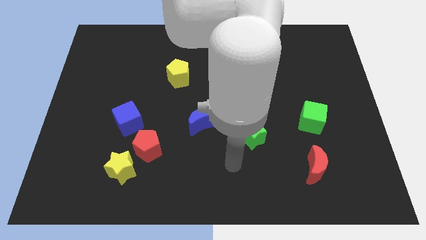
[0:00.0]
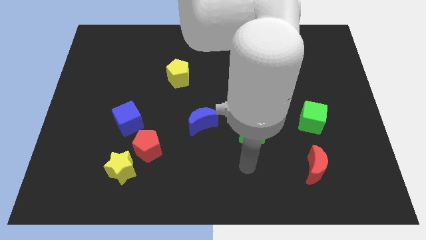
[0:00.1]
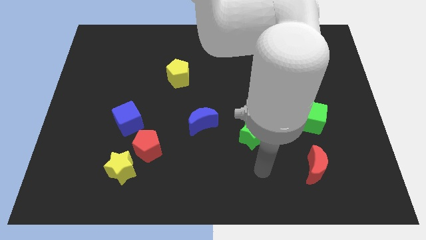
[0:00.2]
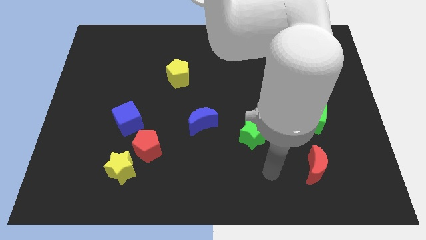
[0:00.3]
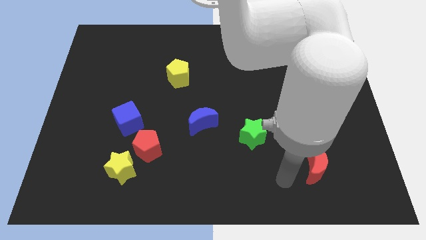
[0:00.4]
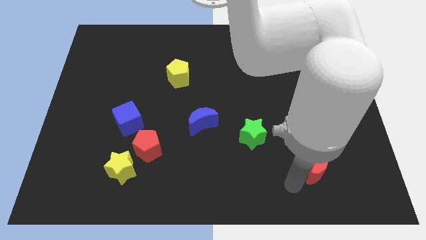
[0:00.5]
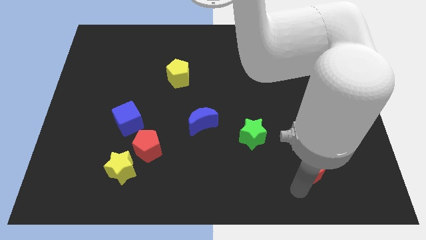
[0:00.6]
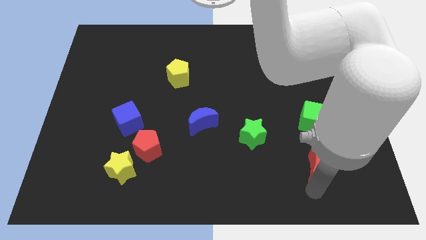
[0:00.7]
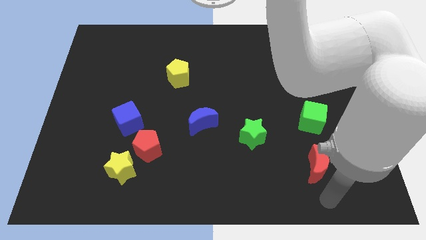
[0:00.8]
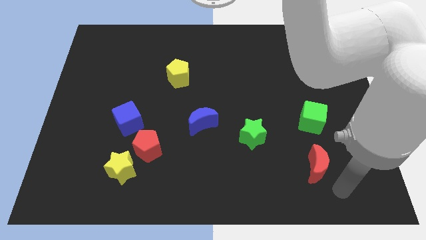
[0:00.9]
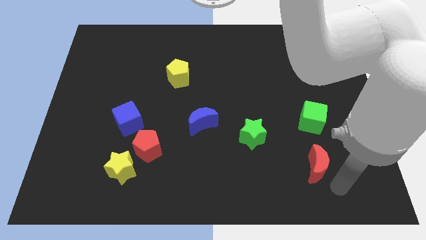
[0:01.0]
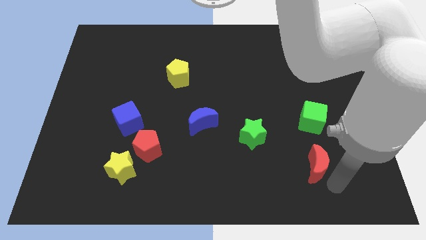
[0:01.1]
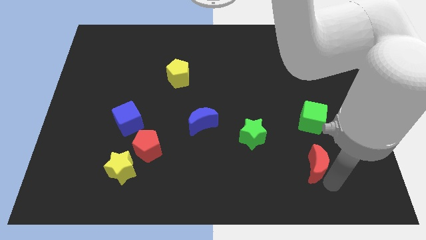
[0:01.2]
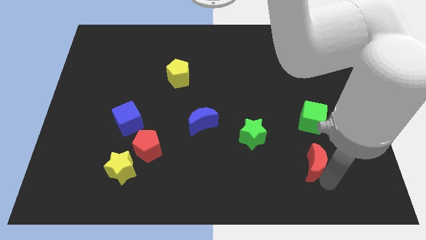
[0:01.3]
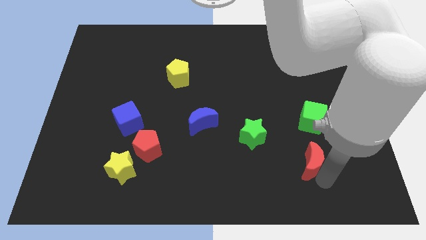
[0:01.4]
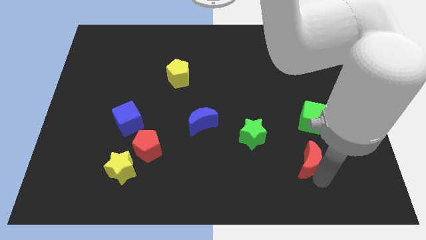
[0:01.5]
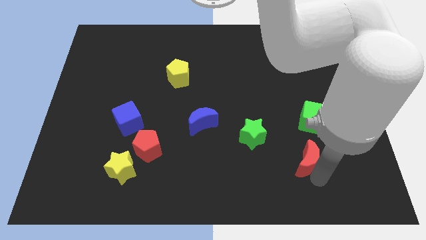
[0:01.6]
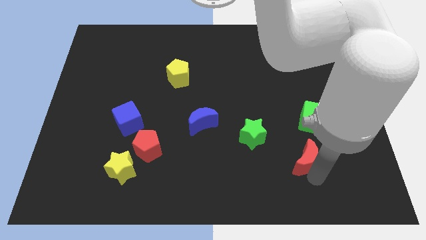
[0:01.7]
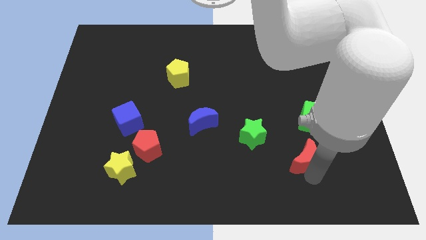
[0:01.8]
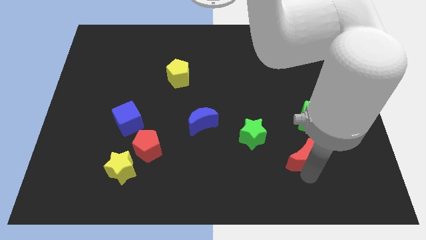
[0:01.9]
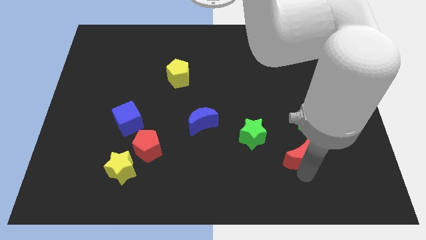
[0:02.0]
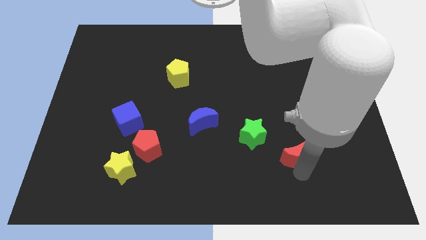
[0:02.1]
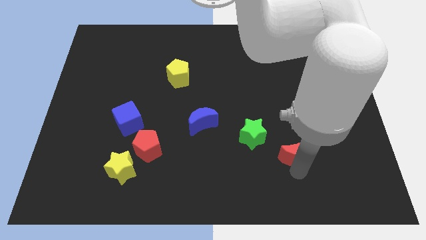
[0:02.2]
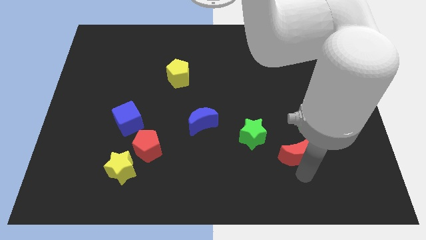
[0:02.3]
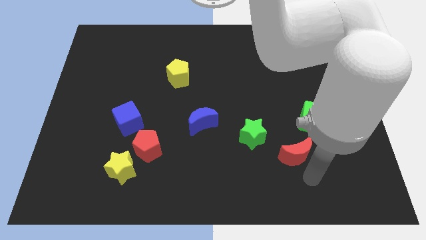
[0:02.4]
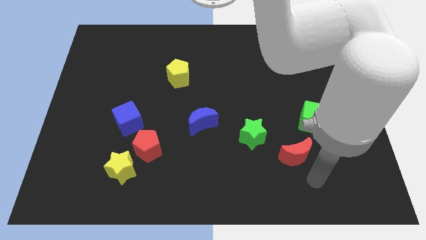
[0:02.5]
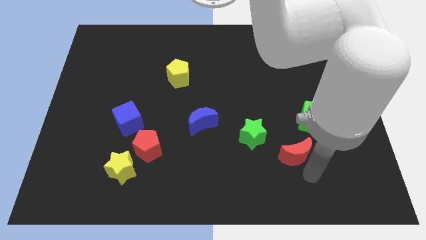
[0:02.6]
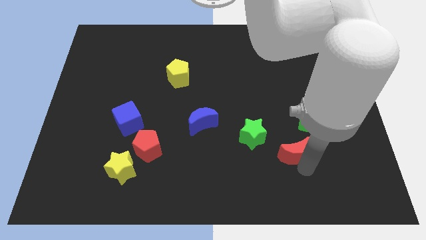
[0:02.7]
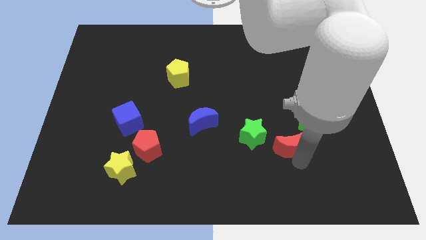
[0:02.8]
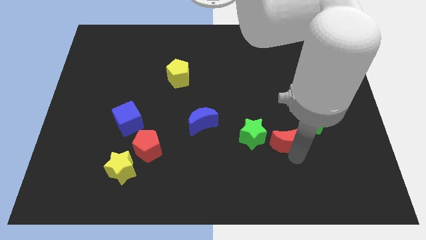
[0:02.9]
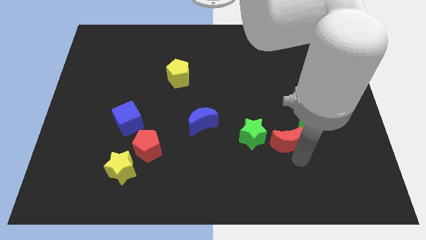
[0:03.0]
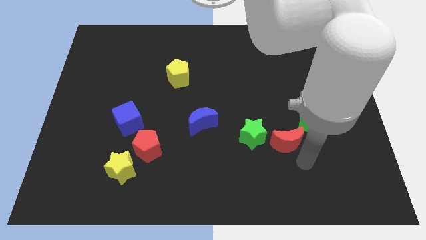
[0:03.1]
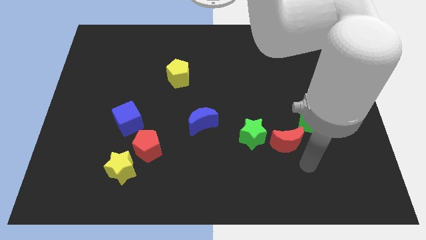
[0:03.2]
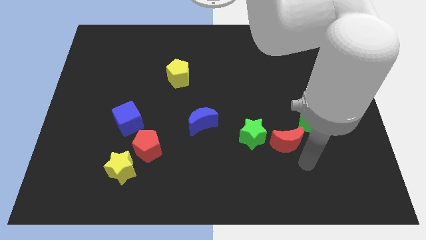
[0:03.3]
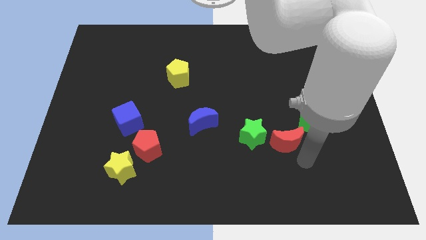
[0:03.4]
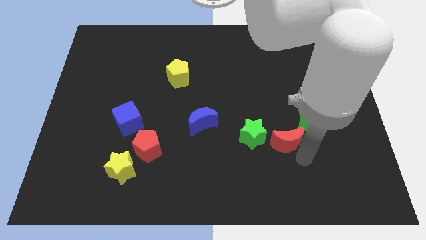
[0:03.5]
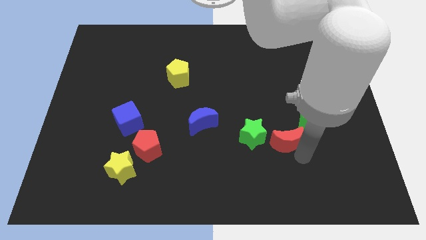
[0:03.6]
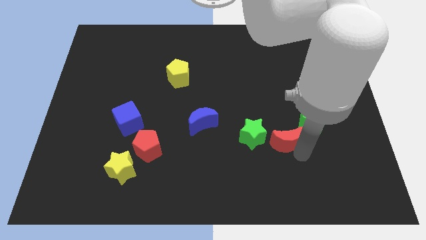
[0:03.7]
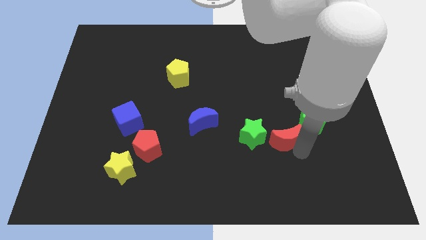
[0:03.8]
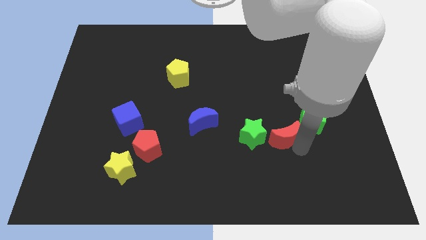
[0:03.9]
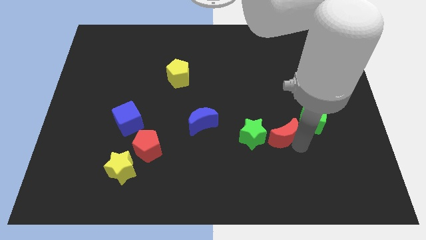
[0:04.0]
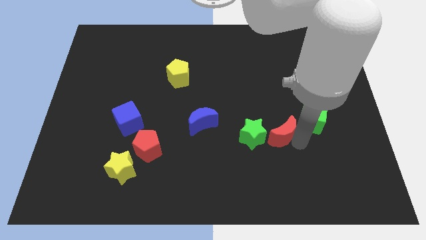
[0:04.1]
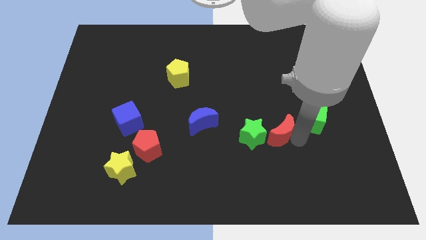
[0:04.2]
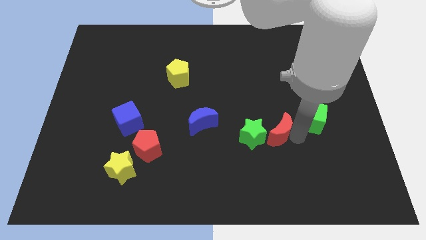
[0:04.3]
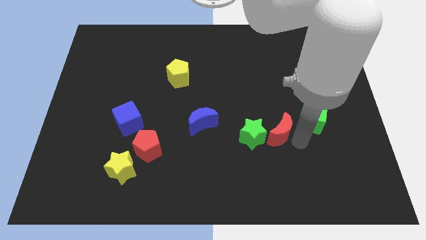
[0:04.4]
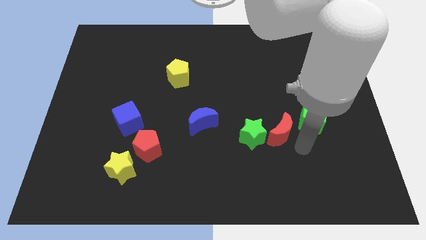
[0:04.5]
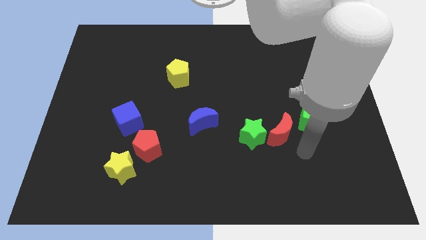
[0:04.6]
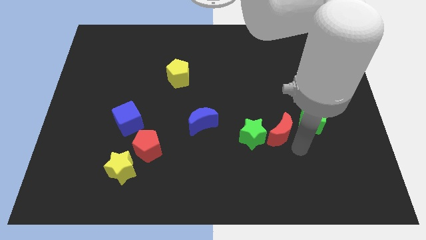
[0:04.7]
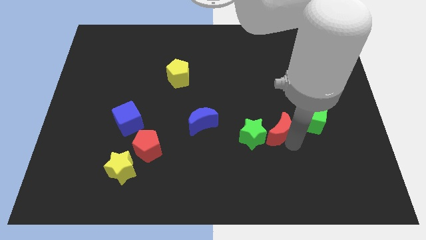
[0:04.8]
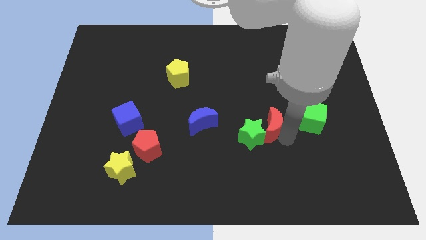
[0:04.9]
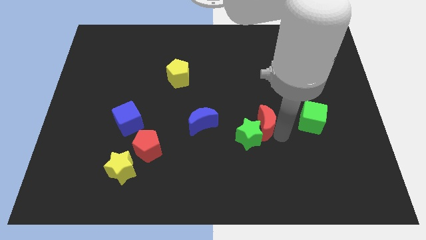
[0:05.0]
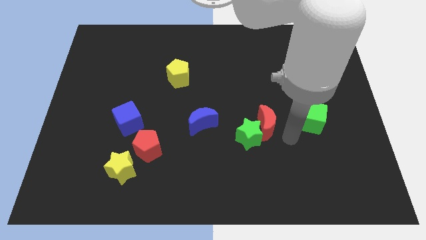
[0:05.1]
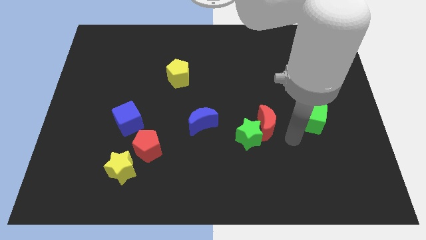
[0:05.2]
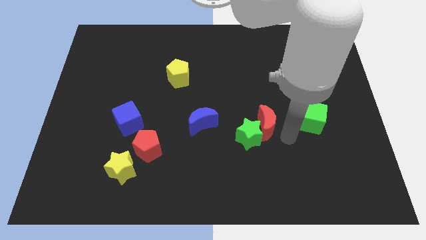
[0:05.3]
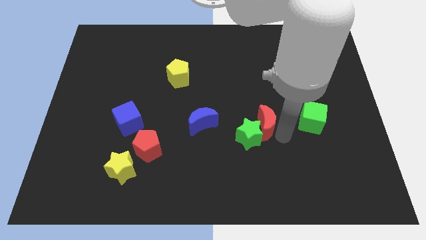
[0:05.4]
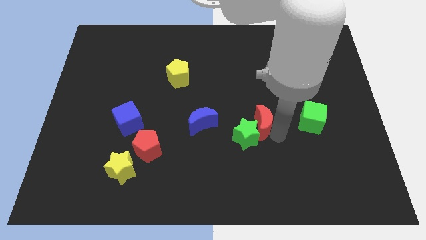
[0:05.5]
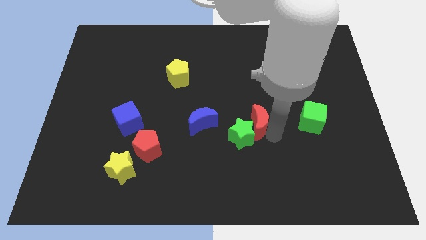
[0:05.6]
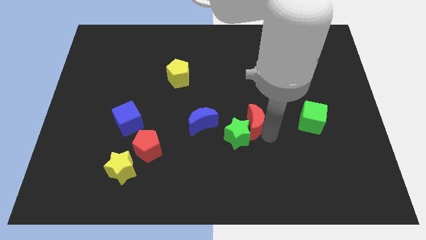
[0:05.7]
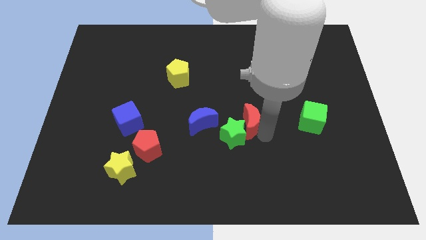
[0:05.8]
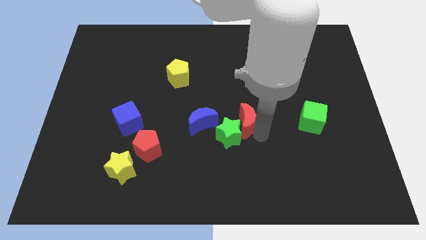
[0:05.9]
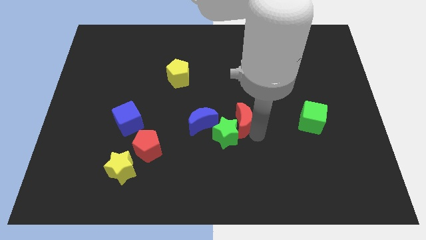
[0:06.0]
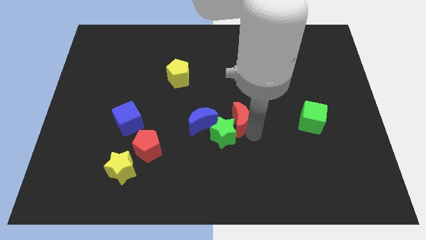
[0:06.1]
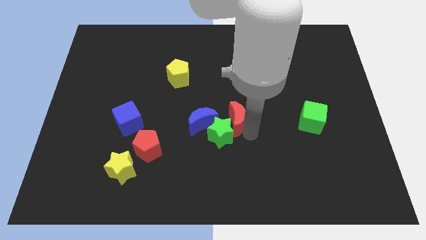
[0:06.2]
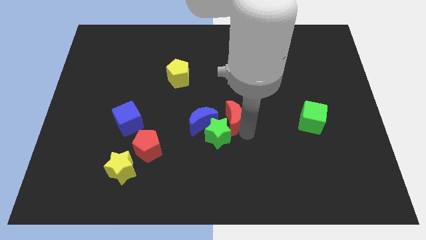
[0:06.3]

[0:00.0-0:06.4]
push the red moon to the top right of the blue moon

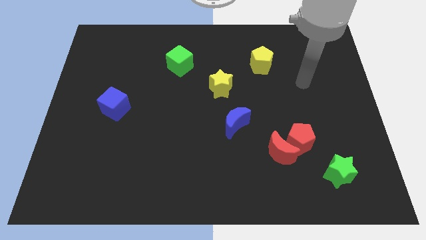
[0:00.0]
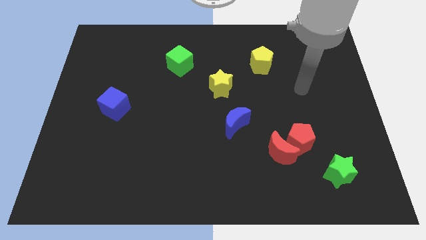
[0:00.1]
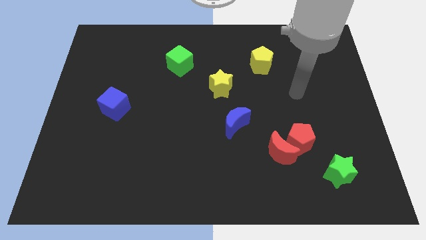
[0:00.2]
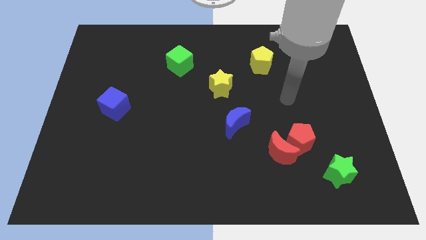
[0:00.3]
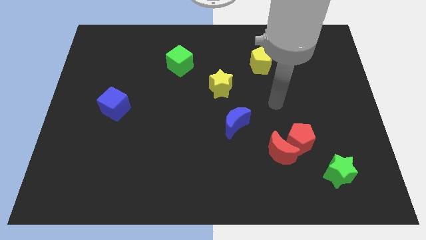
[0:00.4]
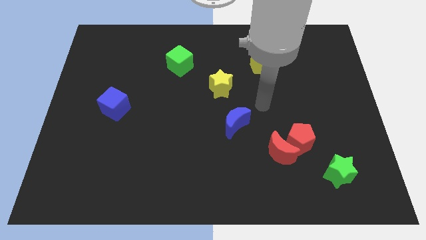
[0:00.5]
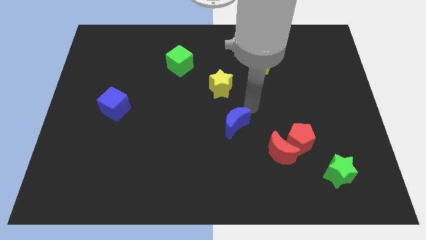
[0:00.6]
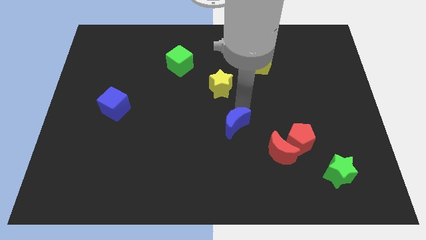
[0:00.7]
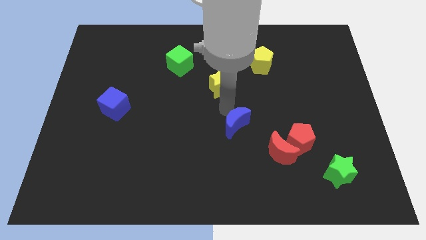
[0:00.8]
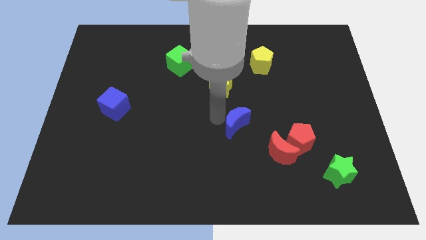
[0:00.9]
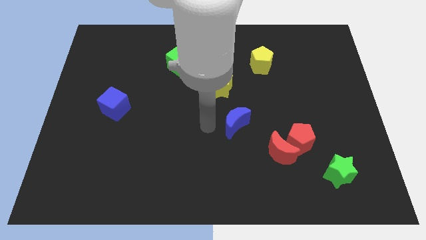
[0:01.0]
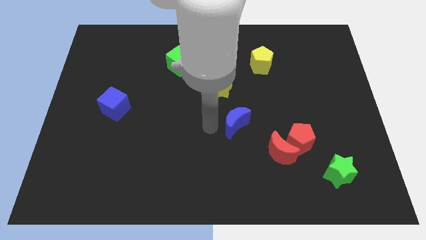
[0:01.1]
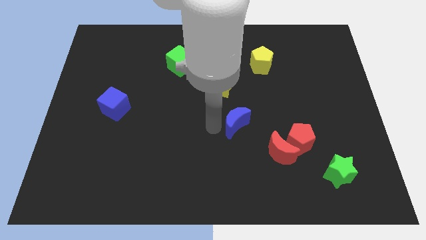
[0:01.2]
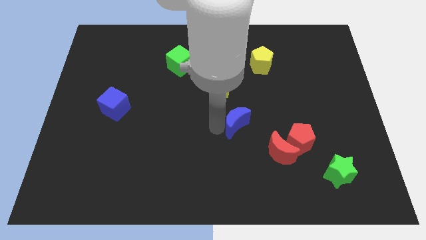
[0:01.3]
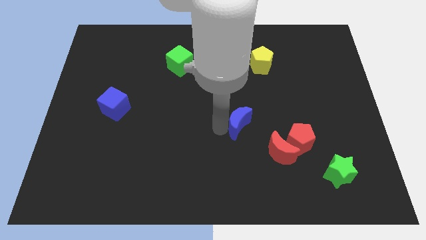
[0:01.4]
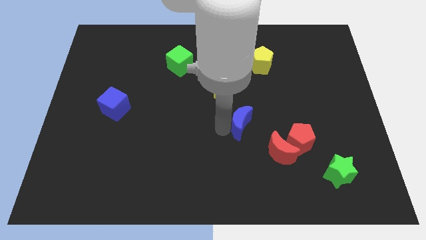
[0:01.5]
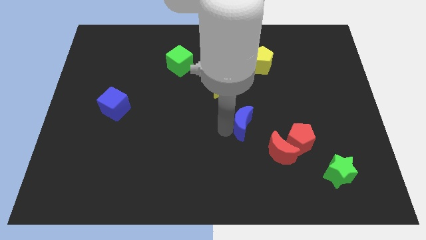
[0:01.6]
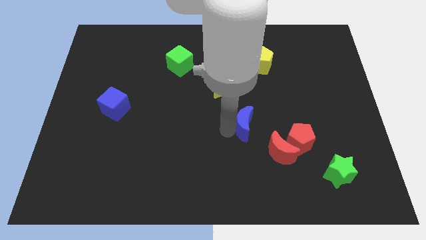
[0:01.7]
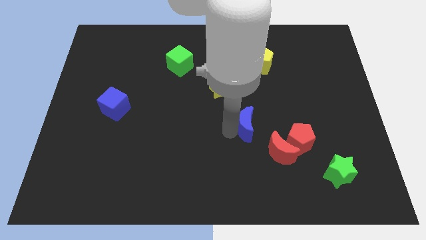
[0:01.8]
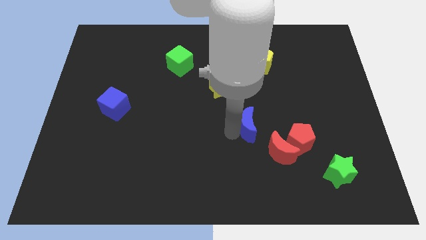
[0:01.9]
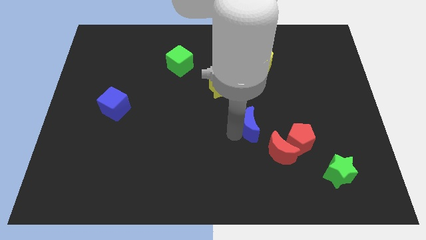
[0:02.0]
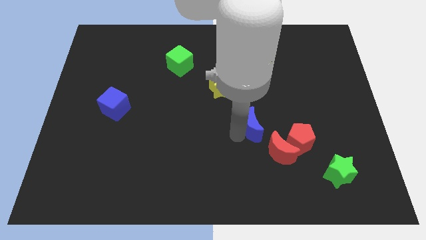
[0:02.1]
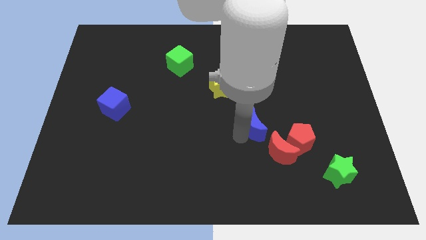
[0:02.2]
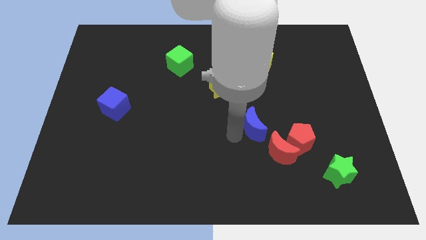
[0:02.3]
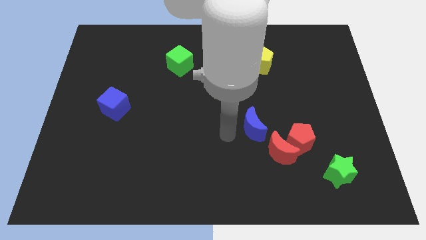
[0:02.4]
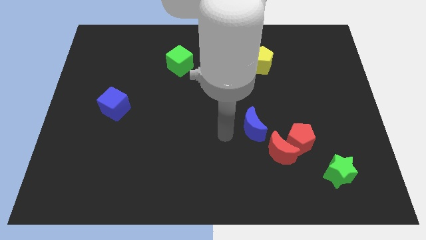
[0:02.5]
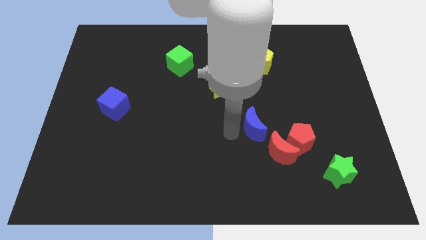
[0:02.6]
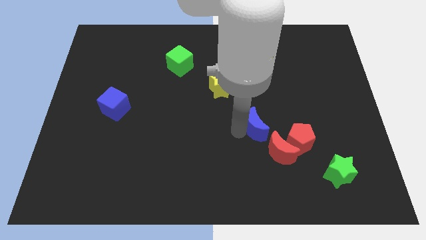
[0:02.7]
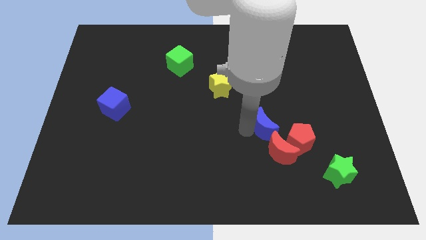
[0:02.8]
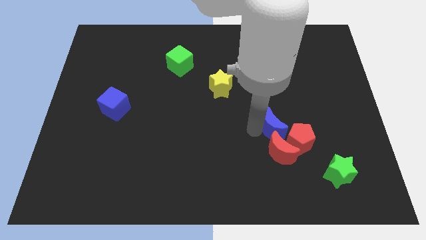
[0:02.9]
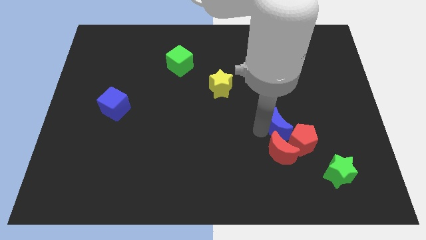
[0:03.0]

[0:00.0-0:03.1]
push the blue moon to the top right of the red moon
